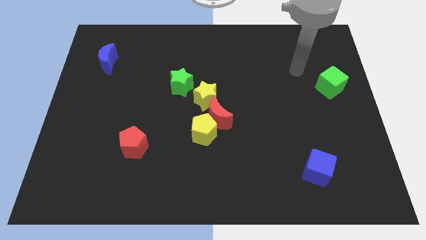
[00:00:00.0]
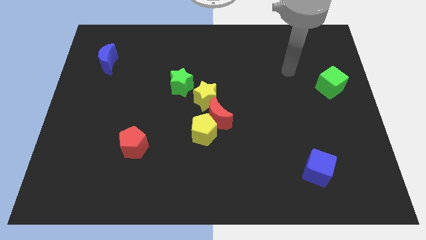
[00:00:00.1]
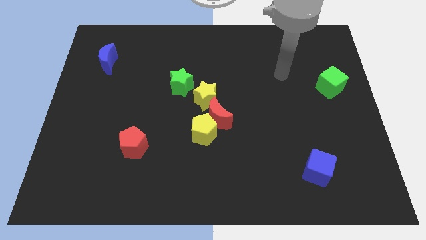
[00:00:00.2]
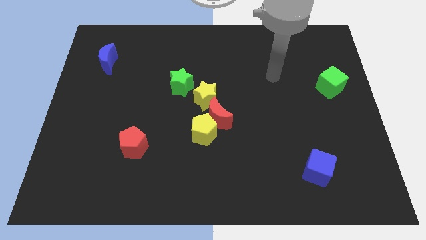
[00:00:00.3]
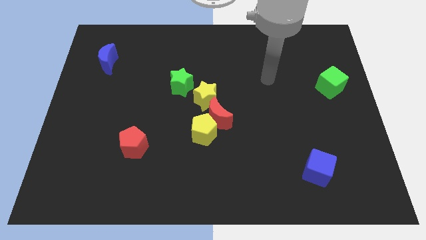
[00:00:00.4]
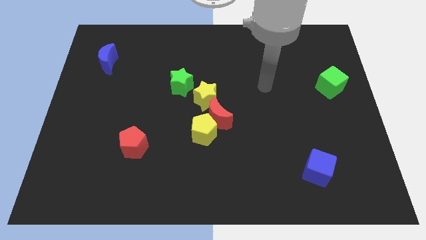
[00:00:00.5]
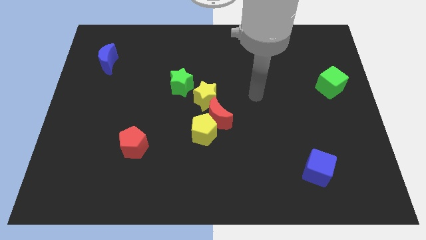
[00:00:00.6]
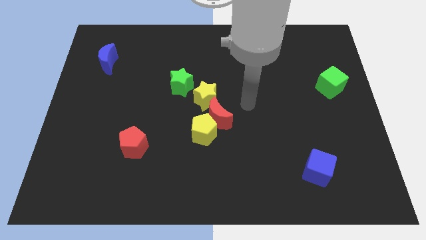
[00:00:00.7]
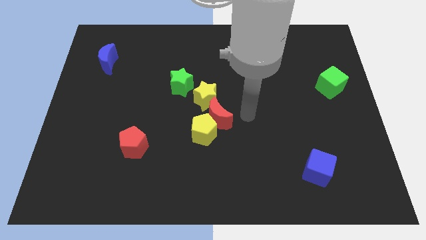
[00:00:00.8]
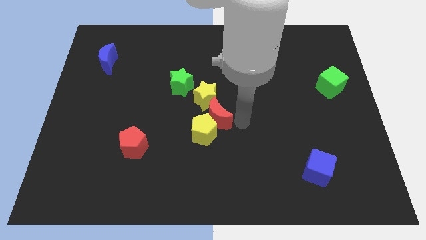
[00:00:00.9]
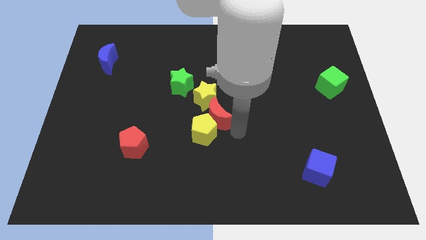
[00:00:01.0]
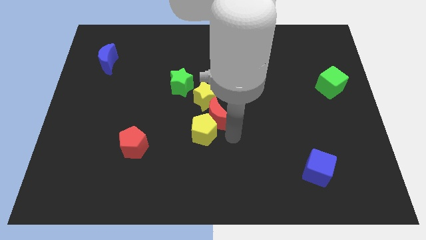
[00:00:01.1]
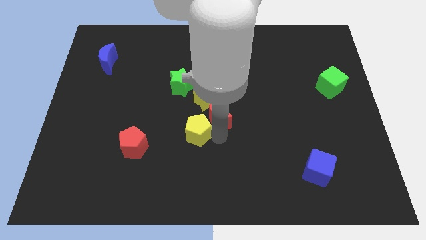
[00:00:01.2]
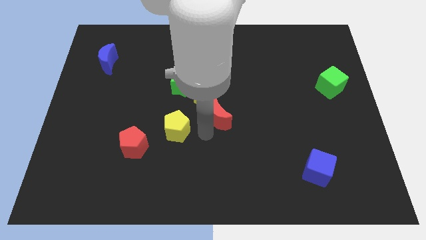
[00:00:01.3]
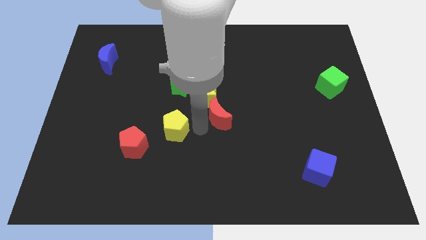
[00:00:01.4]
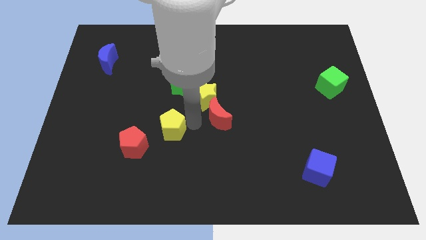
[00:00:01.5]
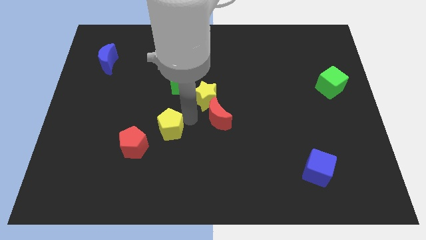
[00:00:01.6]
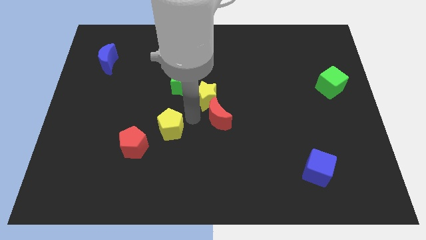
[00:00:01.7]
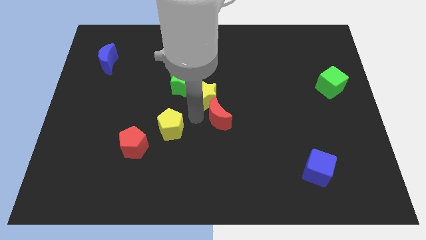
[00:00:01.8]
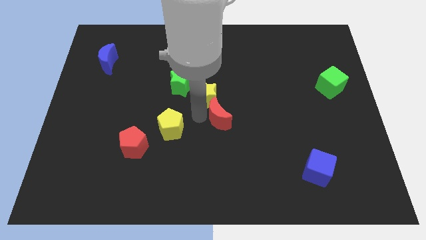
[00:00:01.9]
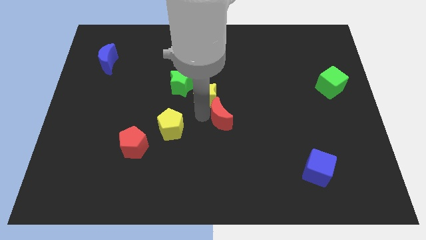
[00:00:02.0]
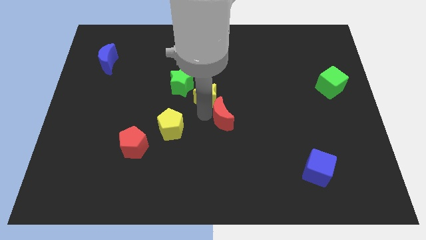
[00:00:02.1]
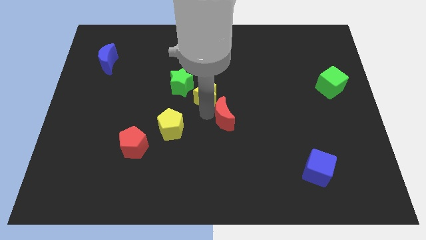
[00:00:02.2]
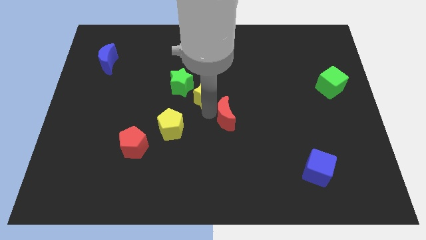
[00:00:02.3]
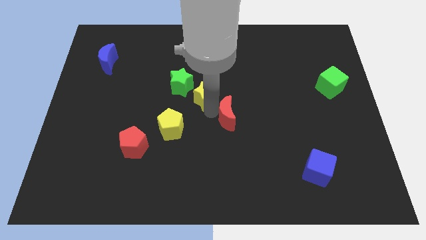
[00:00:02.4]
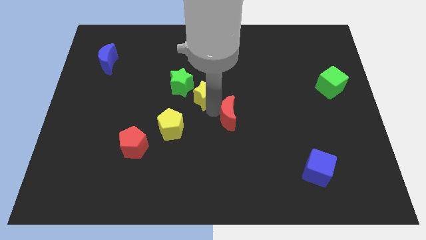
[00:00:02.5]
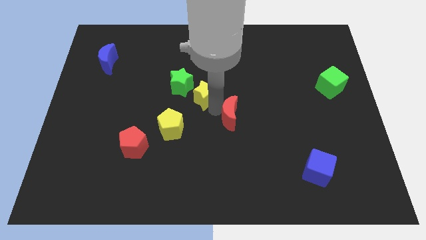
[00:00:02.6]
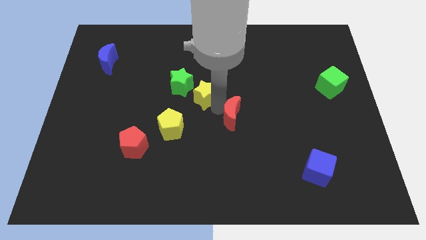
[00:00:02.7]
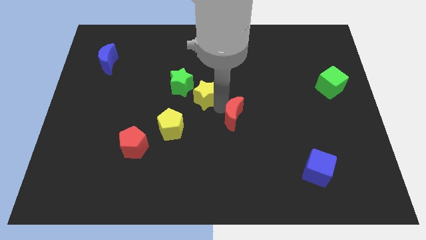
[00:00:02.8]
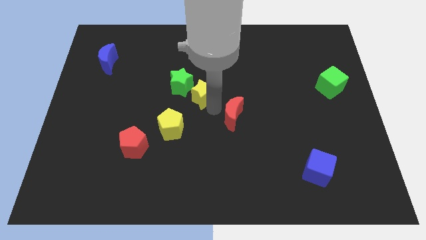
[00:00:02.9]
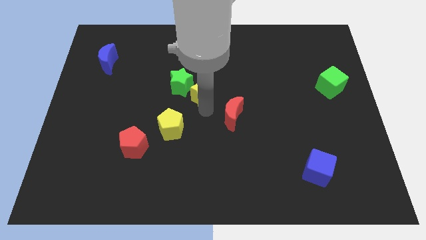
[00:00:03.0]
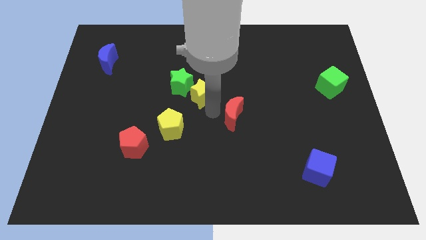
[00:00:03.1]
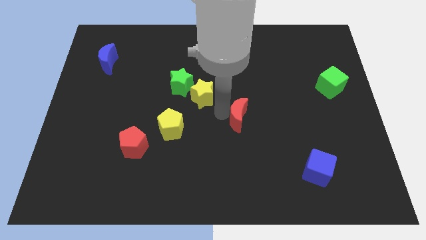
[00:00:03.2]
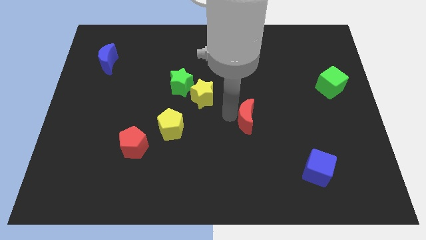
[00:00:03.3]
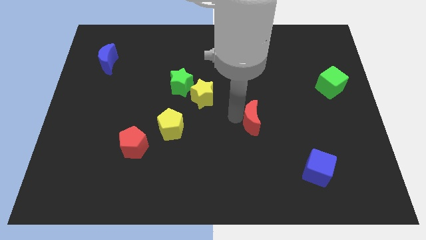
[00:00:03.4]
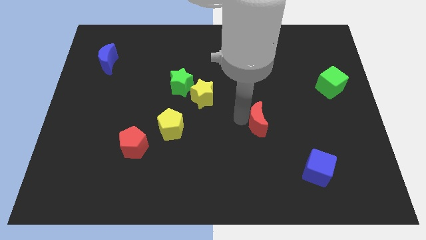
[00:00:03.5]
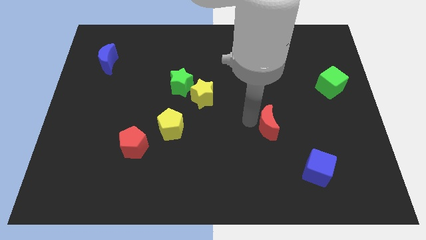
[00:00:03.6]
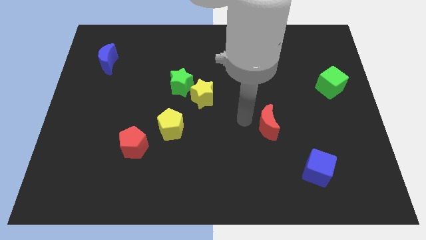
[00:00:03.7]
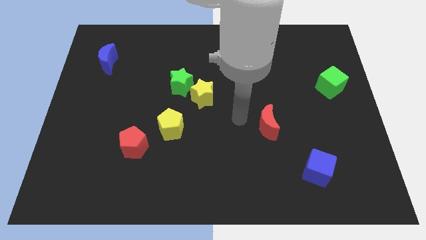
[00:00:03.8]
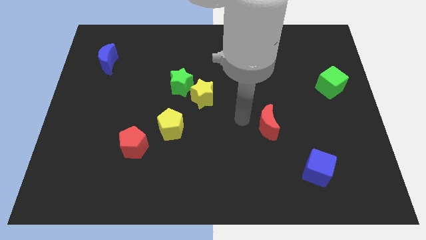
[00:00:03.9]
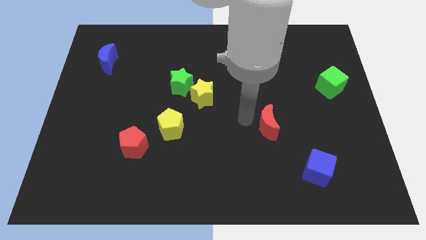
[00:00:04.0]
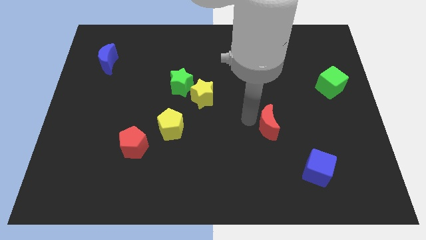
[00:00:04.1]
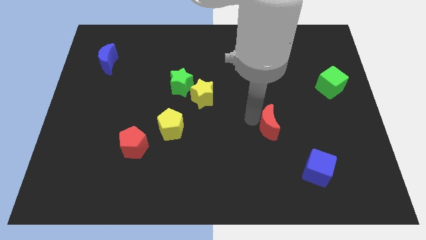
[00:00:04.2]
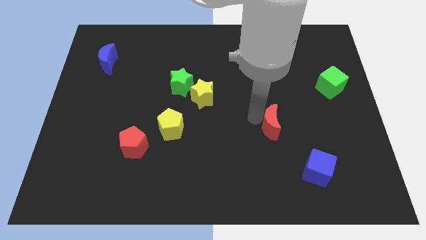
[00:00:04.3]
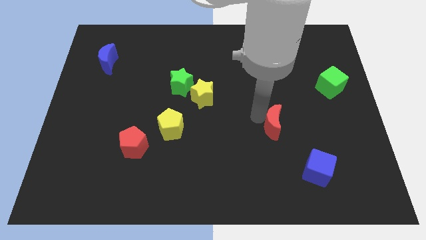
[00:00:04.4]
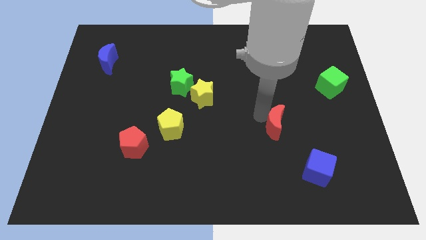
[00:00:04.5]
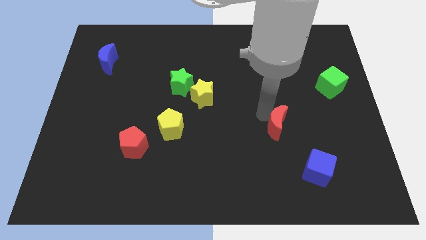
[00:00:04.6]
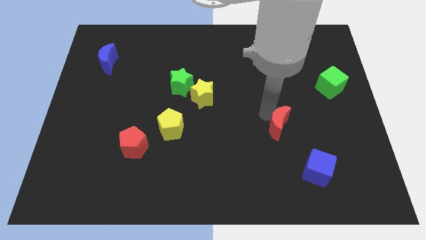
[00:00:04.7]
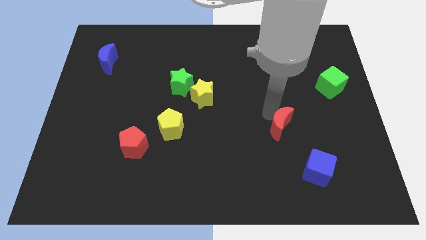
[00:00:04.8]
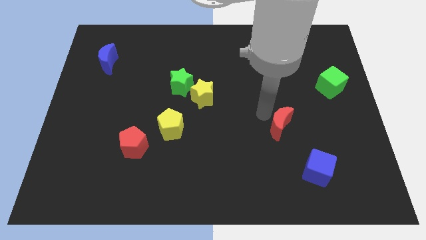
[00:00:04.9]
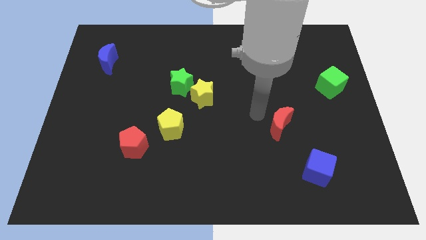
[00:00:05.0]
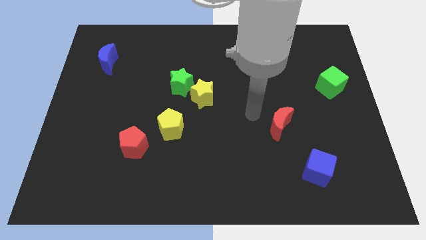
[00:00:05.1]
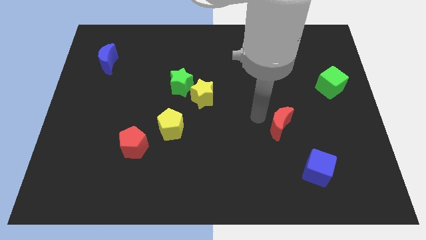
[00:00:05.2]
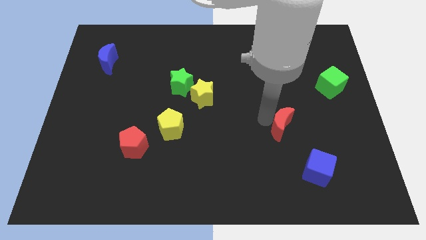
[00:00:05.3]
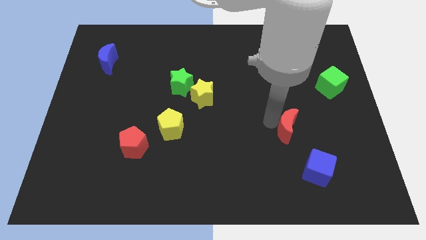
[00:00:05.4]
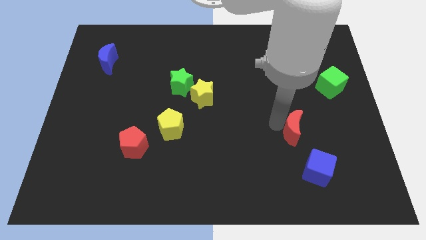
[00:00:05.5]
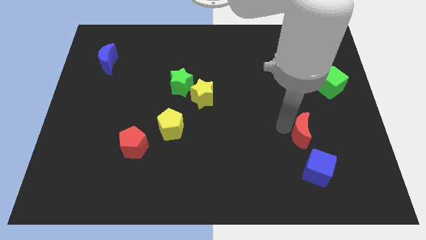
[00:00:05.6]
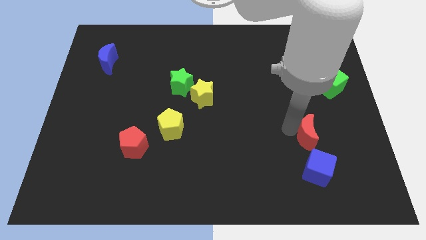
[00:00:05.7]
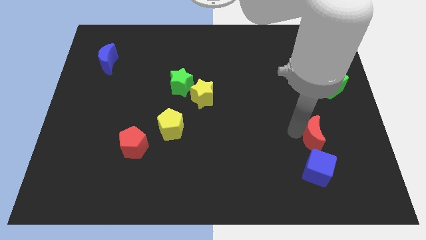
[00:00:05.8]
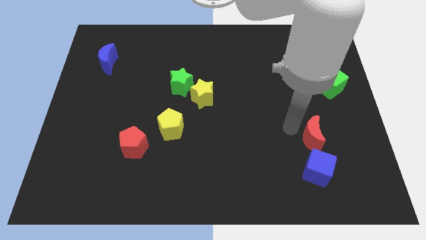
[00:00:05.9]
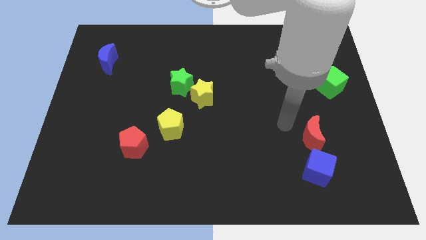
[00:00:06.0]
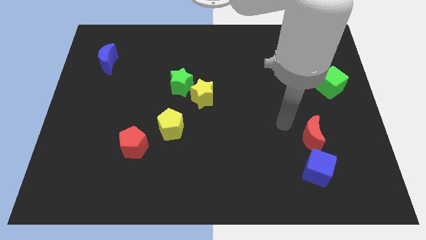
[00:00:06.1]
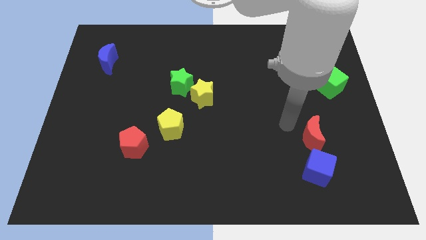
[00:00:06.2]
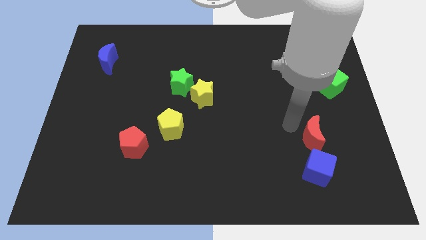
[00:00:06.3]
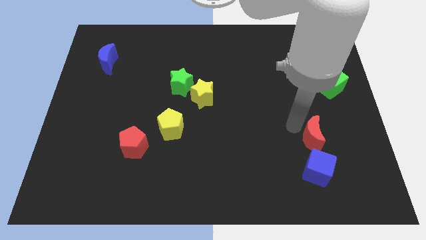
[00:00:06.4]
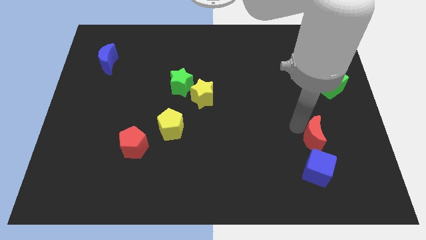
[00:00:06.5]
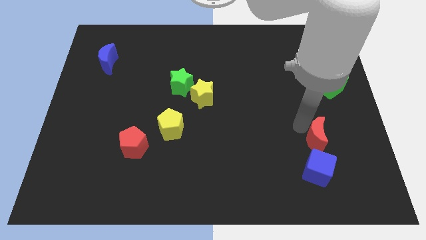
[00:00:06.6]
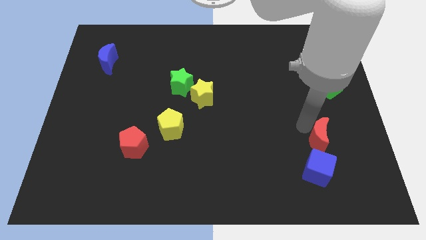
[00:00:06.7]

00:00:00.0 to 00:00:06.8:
slide the red moon diagonally up and to the right of the blue cube

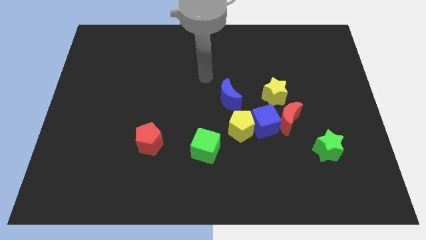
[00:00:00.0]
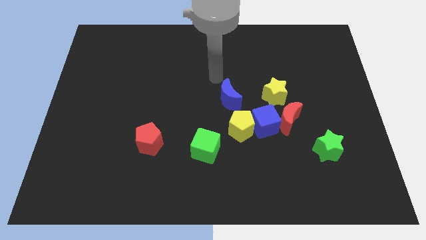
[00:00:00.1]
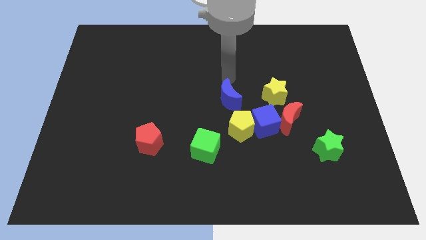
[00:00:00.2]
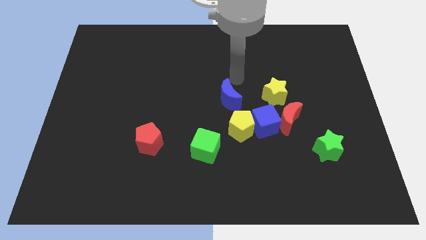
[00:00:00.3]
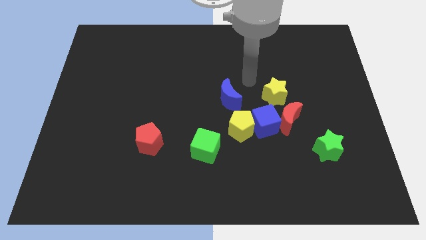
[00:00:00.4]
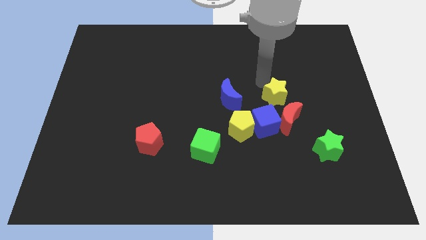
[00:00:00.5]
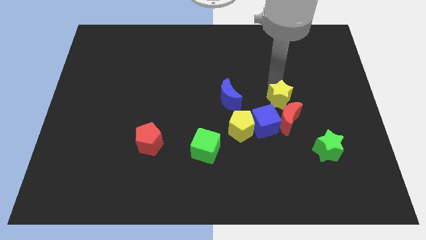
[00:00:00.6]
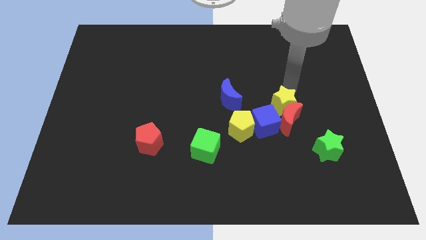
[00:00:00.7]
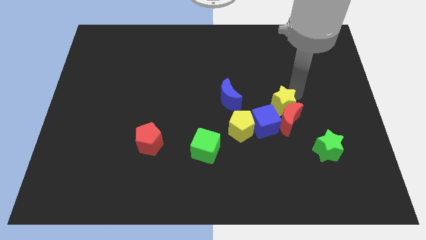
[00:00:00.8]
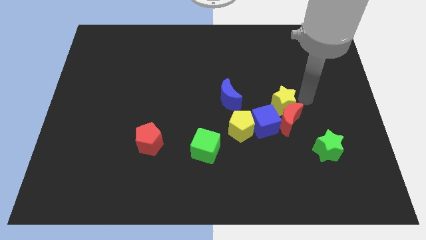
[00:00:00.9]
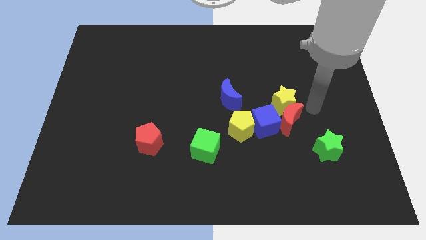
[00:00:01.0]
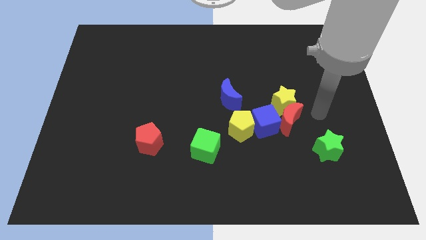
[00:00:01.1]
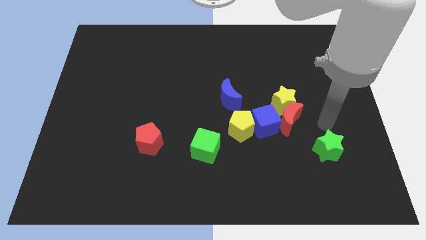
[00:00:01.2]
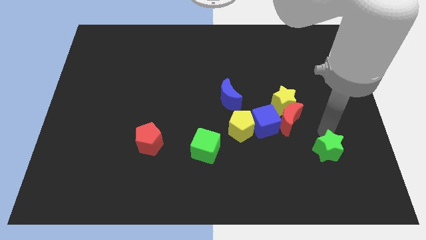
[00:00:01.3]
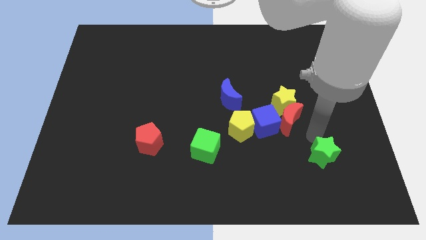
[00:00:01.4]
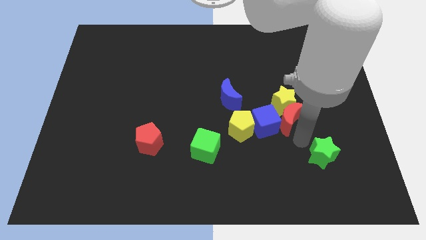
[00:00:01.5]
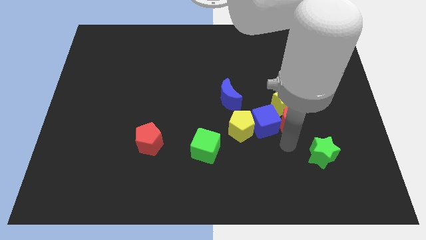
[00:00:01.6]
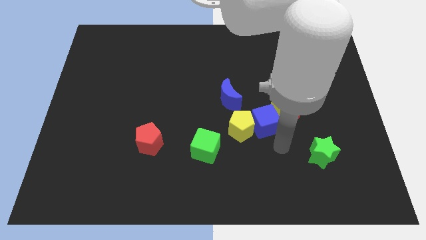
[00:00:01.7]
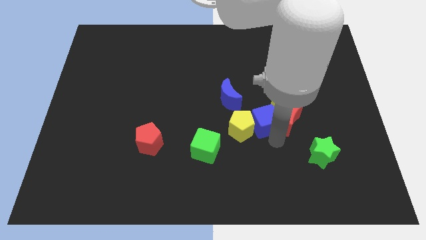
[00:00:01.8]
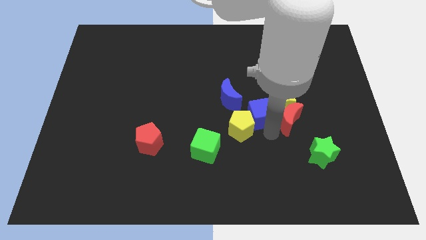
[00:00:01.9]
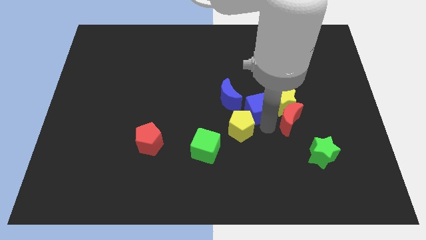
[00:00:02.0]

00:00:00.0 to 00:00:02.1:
push the blue cube to the top side of the yellow pentagon
